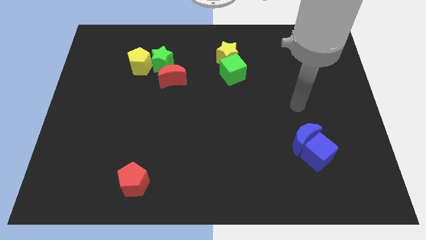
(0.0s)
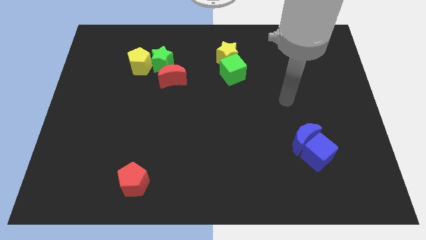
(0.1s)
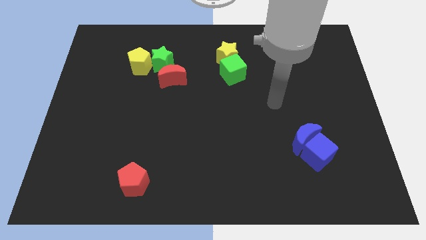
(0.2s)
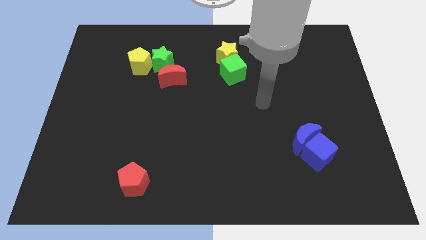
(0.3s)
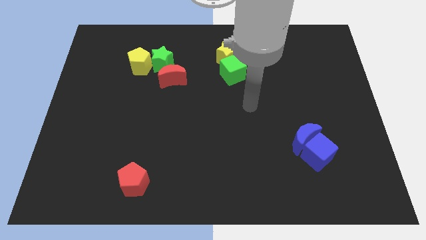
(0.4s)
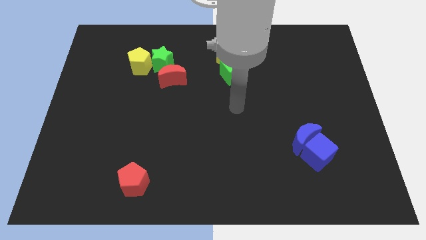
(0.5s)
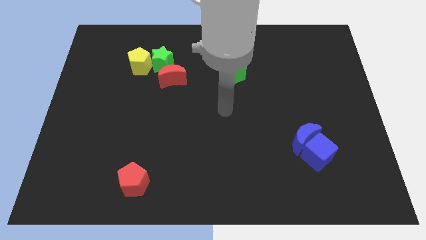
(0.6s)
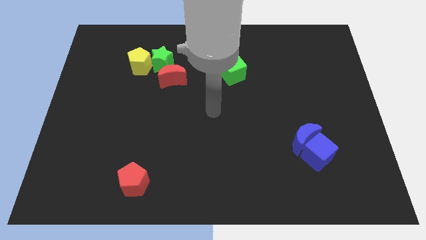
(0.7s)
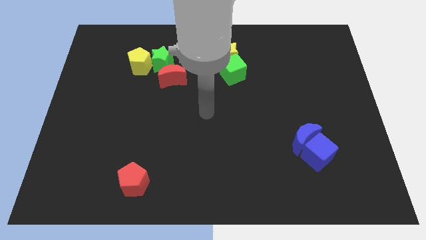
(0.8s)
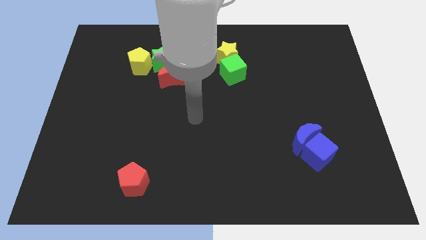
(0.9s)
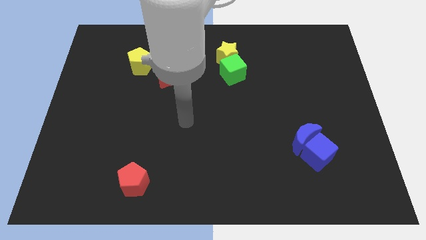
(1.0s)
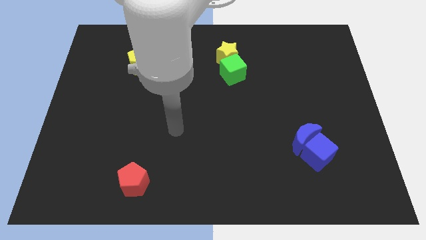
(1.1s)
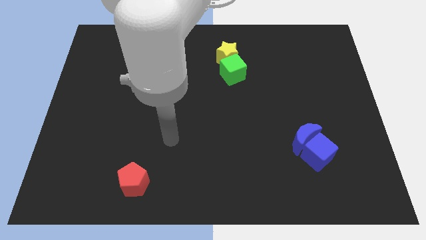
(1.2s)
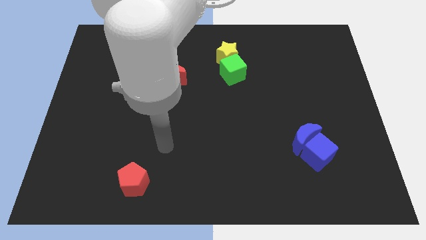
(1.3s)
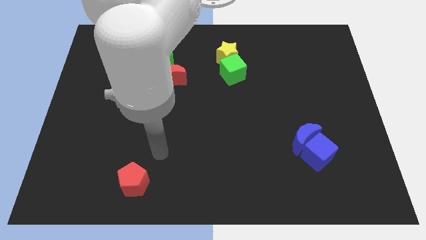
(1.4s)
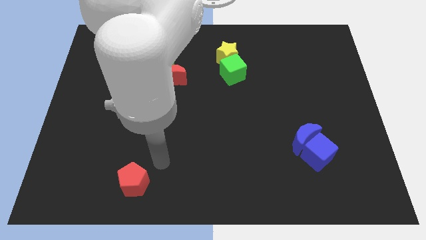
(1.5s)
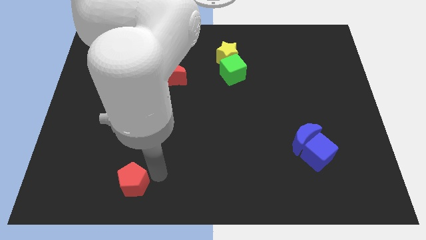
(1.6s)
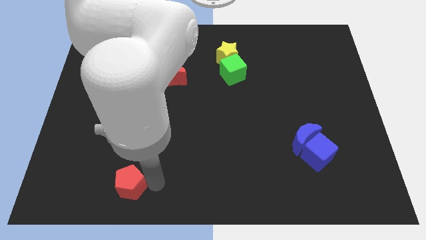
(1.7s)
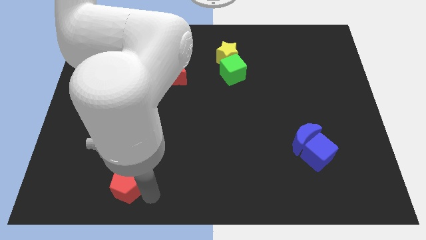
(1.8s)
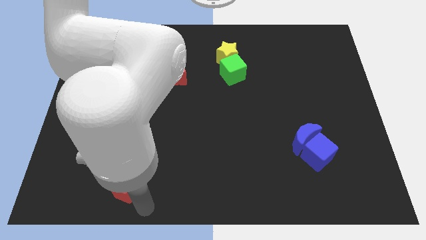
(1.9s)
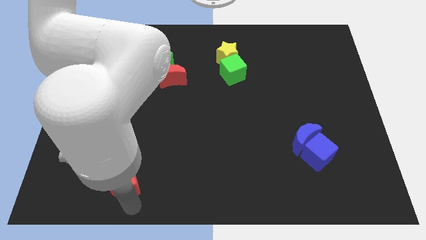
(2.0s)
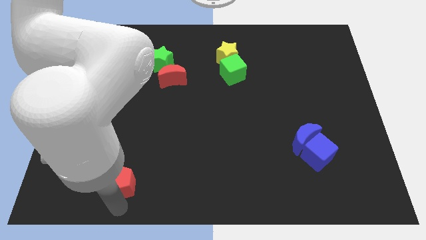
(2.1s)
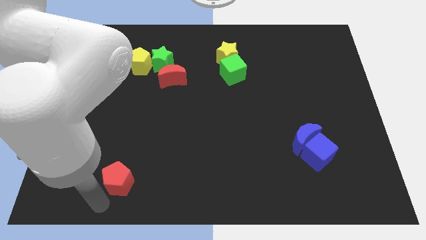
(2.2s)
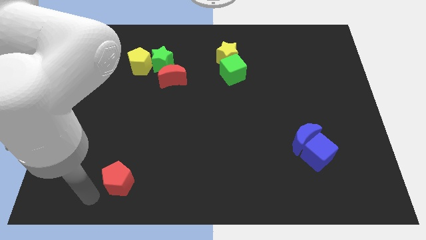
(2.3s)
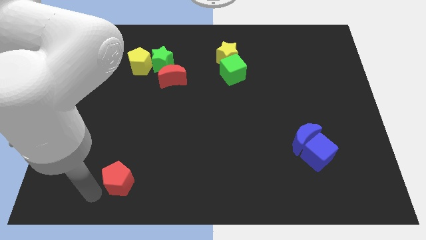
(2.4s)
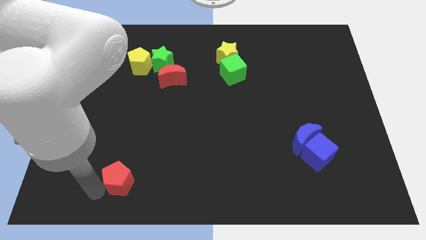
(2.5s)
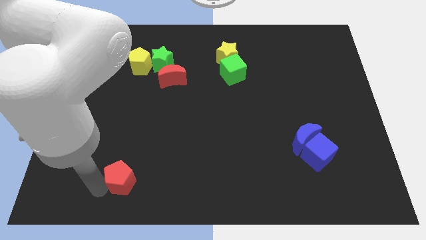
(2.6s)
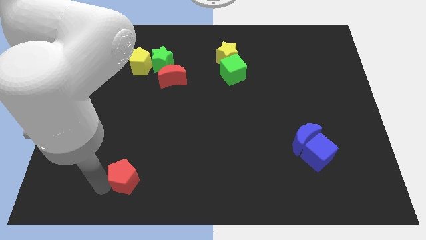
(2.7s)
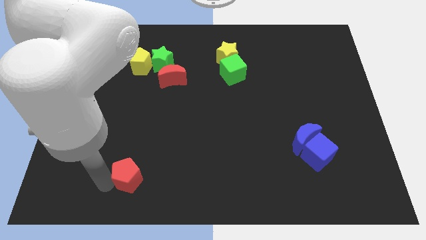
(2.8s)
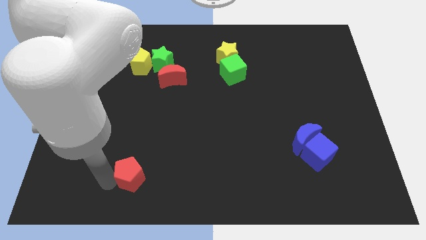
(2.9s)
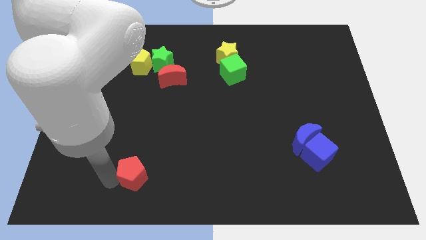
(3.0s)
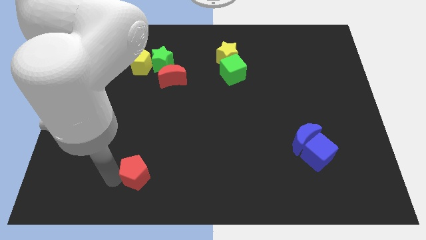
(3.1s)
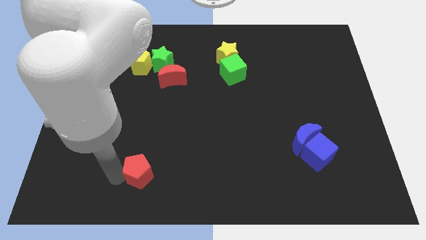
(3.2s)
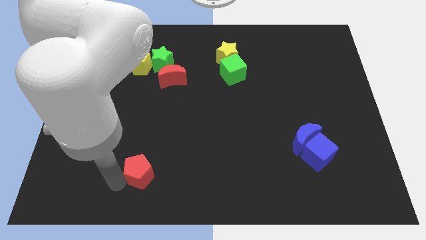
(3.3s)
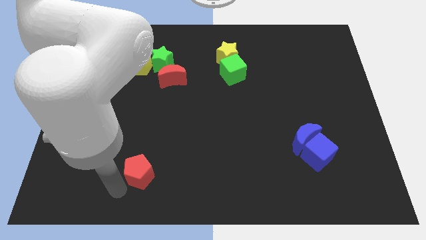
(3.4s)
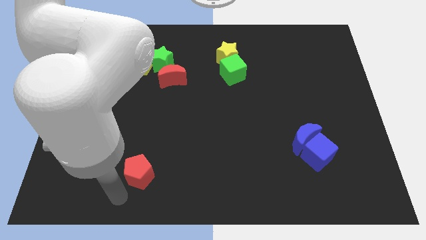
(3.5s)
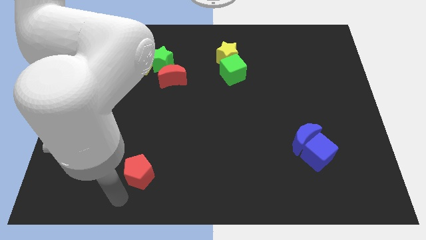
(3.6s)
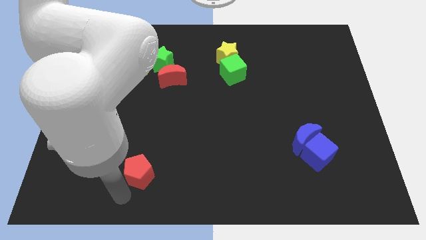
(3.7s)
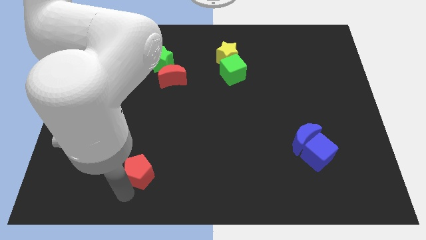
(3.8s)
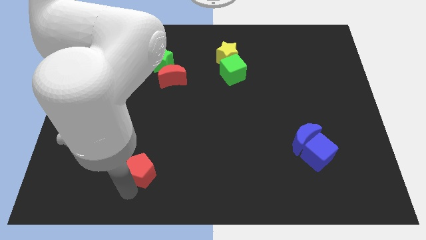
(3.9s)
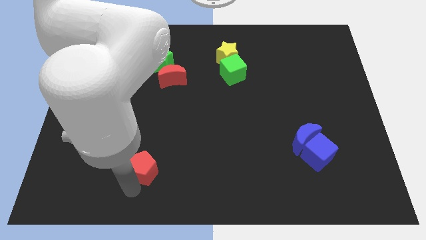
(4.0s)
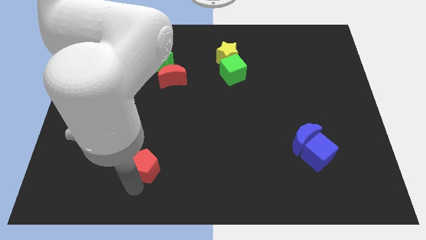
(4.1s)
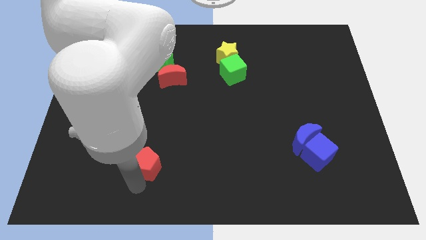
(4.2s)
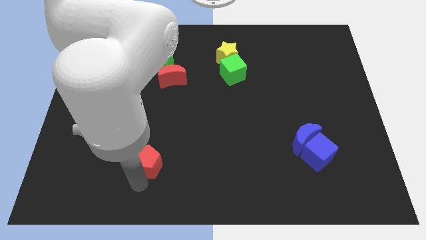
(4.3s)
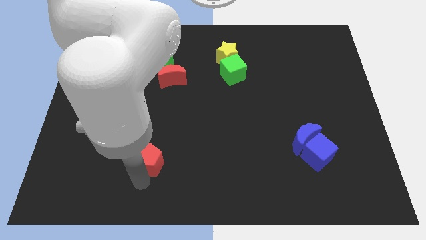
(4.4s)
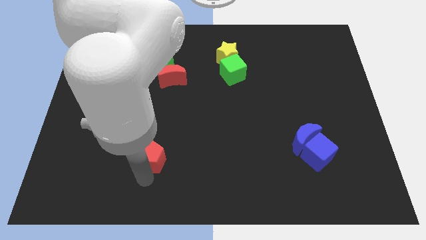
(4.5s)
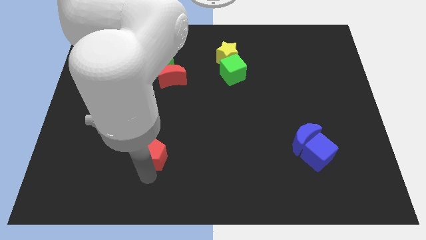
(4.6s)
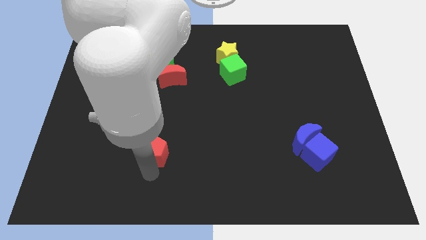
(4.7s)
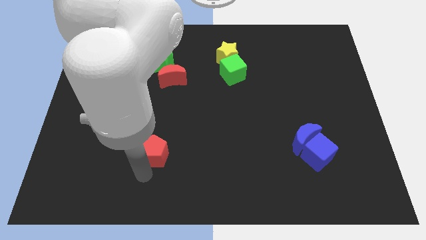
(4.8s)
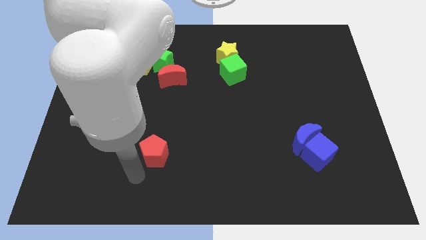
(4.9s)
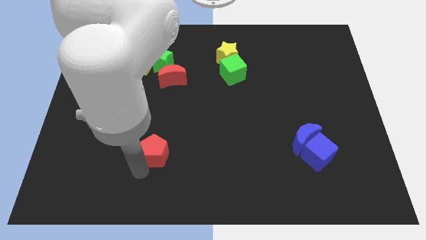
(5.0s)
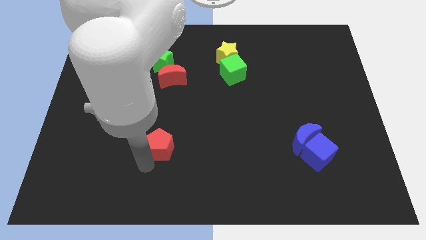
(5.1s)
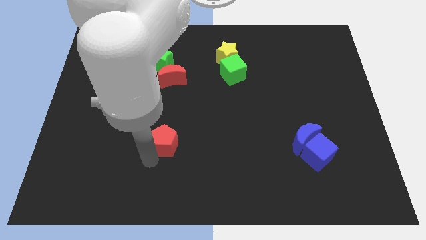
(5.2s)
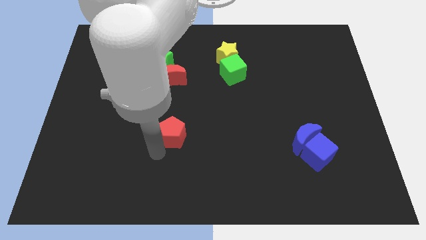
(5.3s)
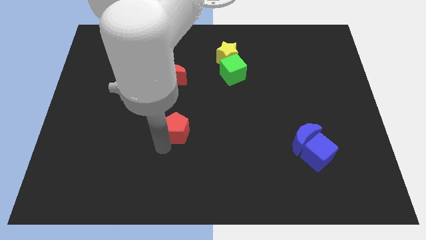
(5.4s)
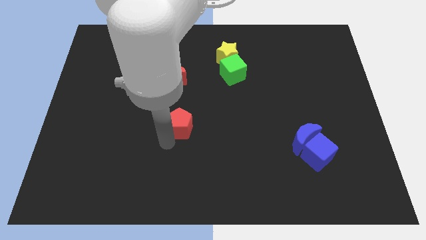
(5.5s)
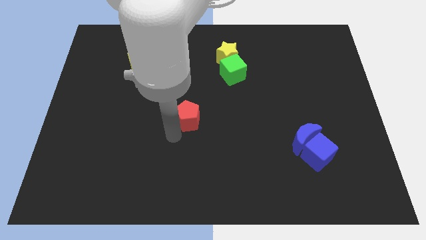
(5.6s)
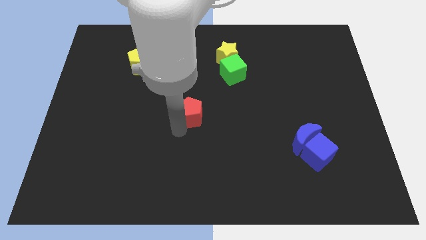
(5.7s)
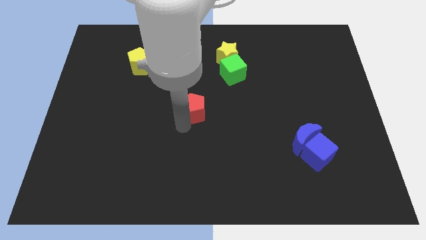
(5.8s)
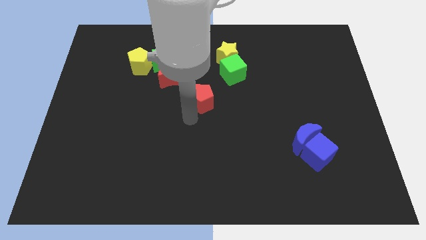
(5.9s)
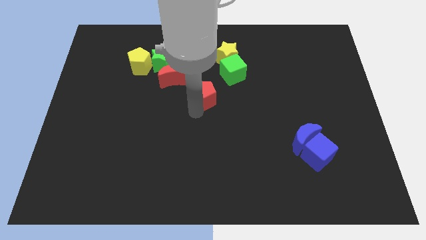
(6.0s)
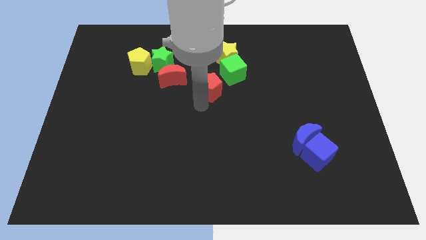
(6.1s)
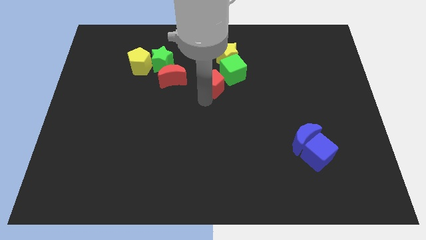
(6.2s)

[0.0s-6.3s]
put the red pentagon diagonally down and to the left of the yellow star

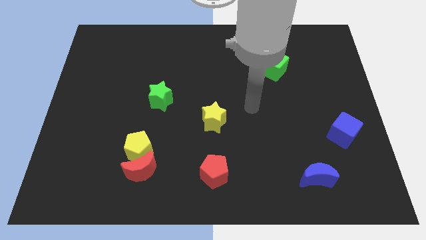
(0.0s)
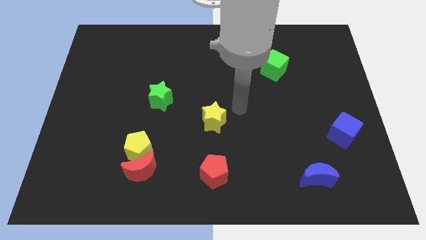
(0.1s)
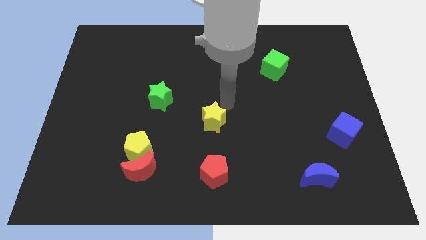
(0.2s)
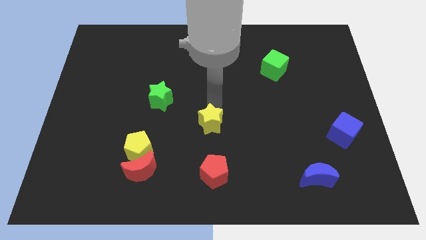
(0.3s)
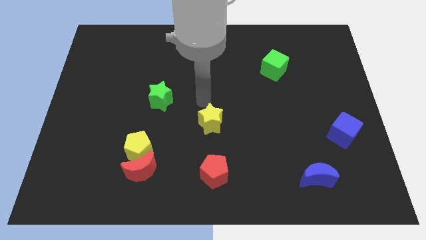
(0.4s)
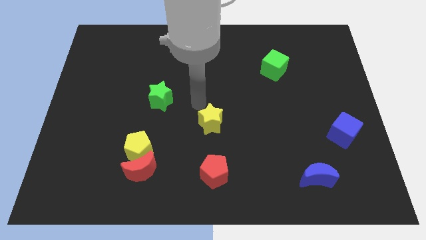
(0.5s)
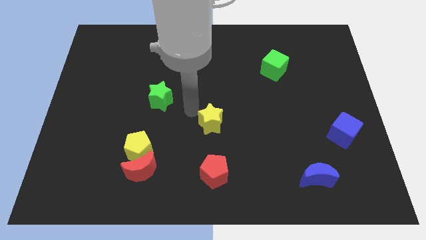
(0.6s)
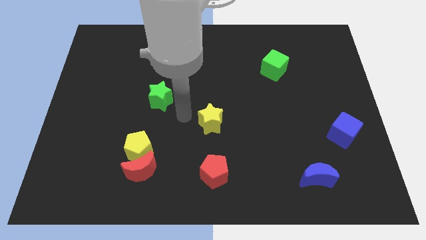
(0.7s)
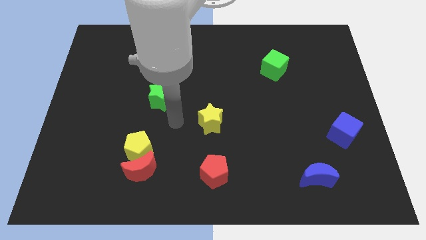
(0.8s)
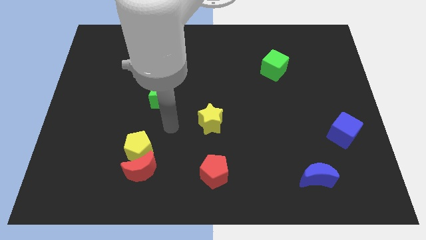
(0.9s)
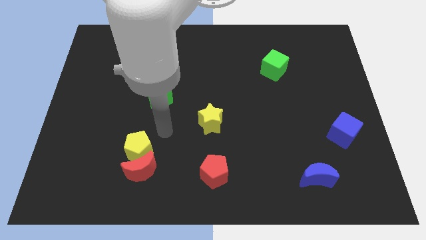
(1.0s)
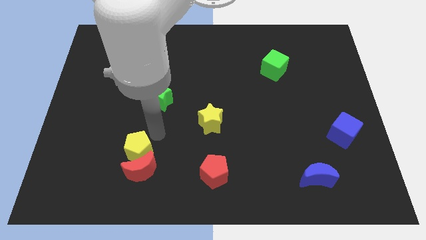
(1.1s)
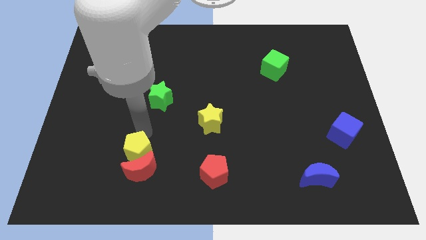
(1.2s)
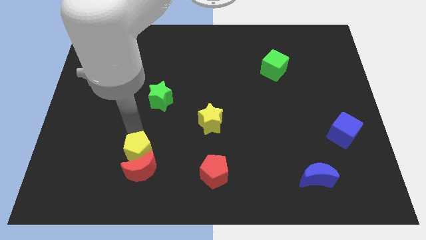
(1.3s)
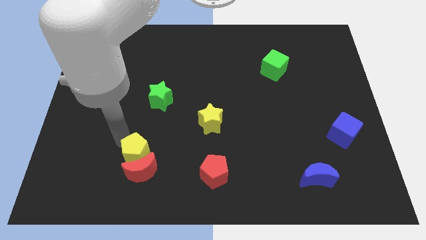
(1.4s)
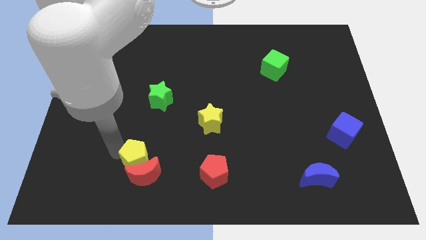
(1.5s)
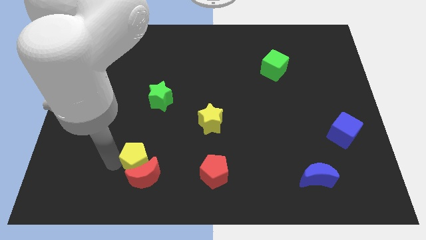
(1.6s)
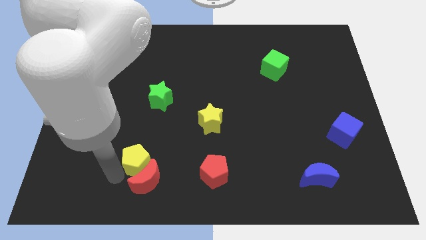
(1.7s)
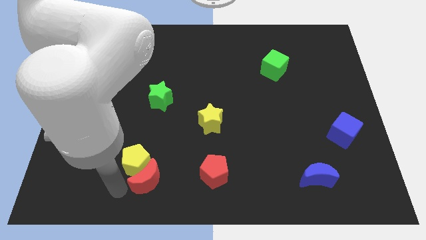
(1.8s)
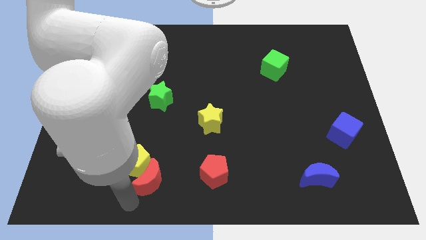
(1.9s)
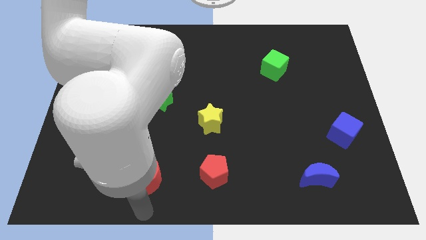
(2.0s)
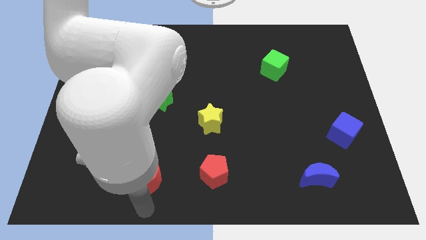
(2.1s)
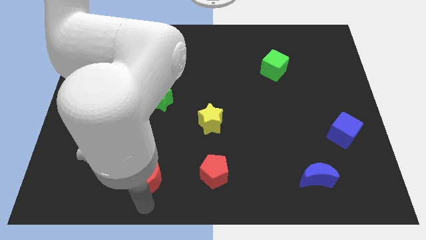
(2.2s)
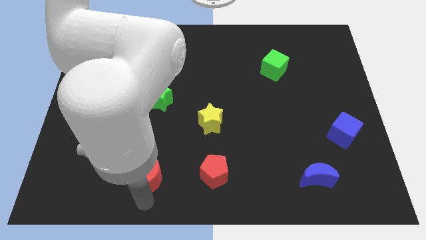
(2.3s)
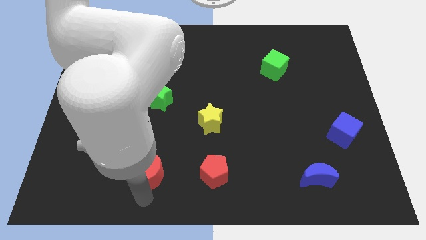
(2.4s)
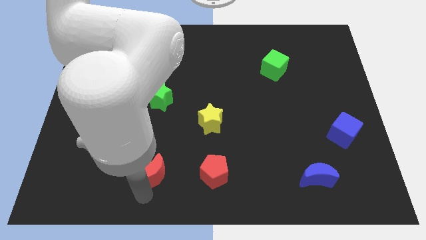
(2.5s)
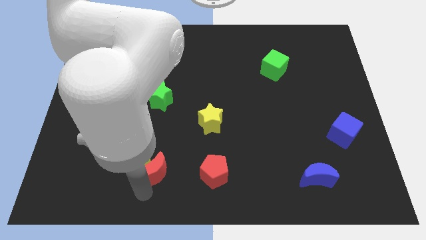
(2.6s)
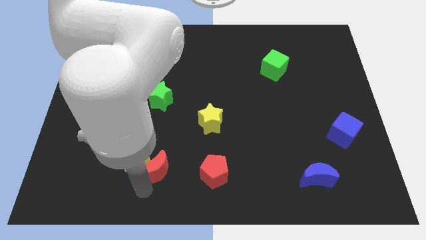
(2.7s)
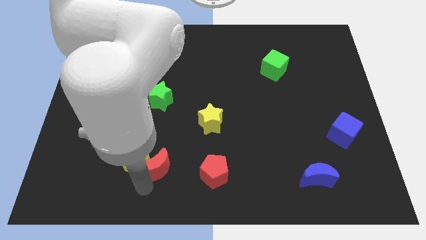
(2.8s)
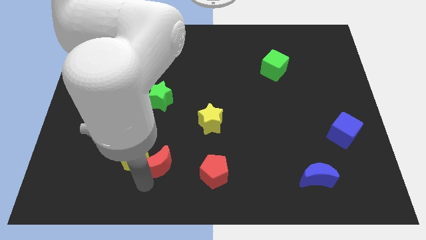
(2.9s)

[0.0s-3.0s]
push the red moon to the top right side of the yellow pentagon
